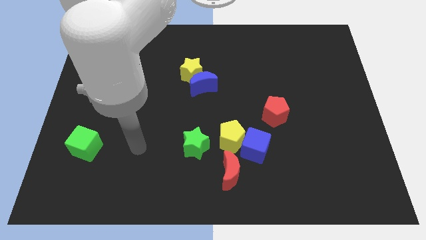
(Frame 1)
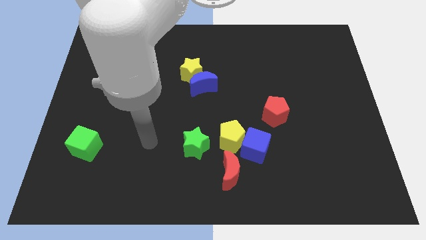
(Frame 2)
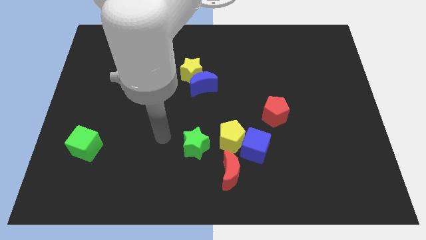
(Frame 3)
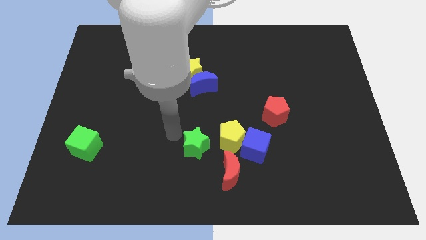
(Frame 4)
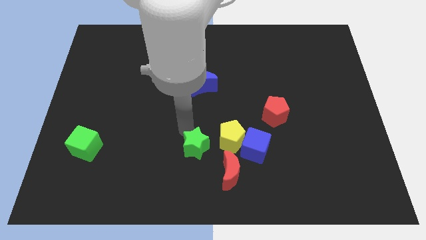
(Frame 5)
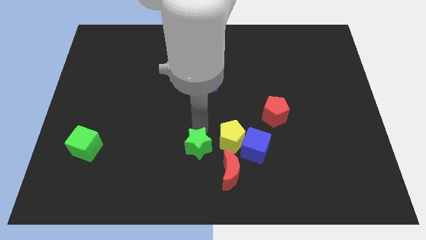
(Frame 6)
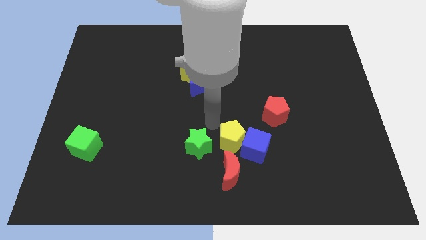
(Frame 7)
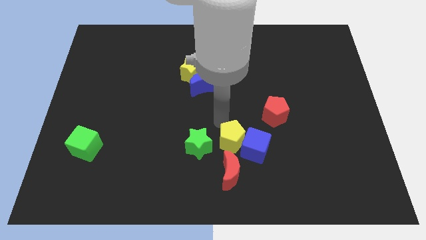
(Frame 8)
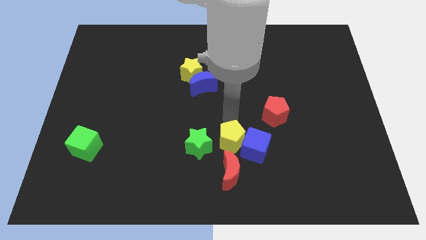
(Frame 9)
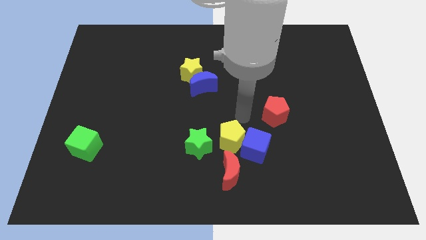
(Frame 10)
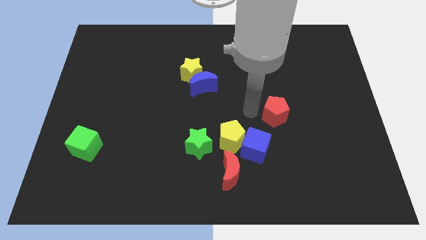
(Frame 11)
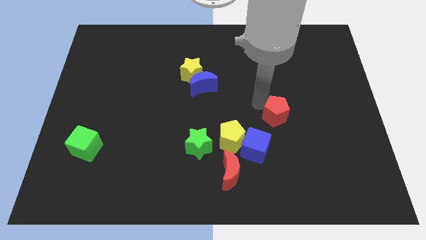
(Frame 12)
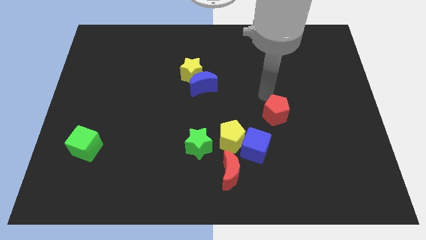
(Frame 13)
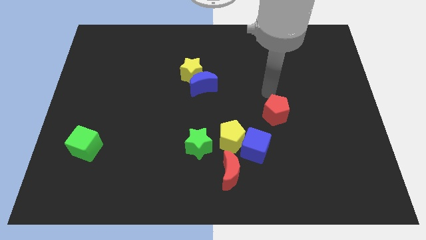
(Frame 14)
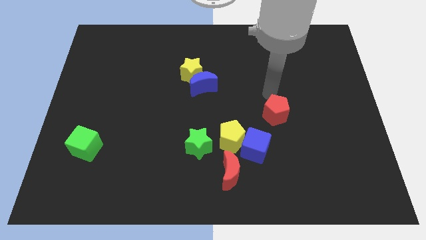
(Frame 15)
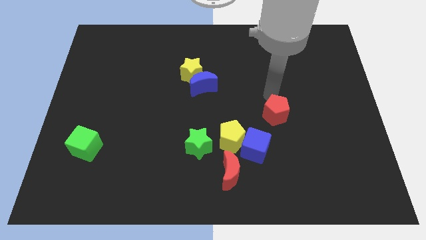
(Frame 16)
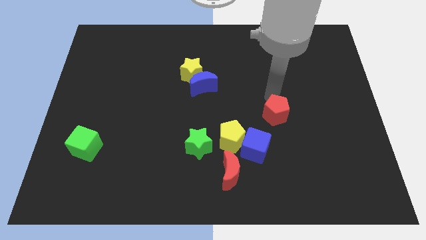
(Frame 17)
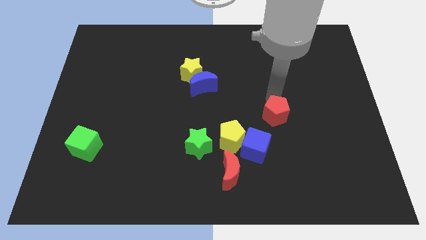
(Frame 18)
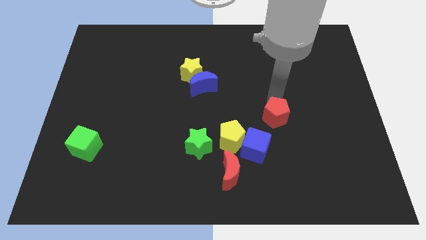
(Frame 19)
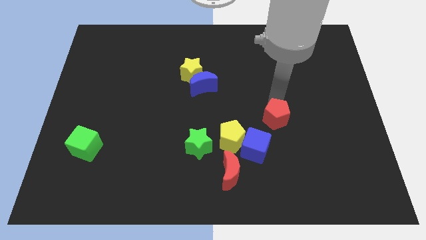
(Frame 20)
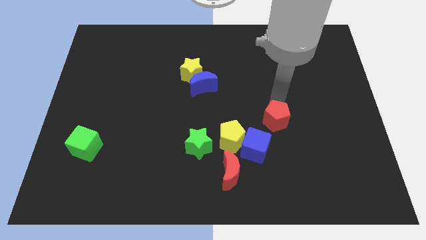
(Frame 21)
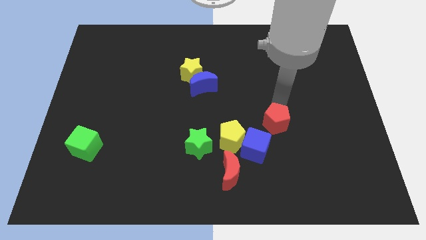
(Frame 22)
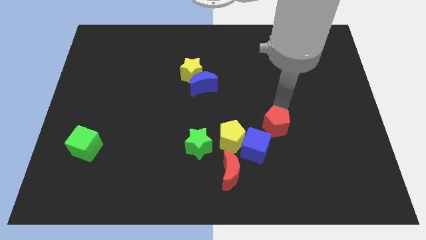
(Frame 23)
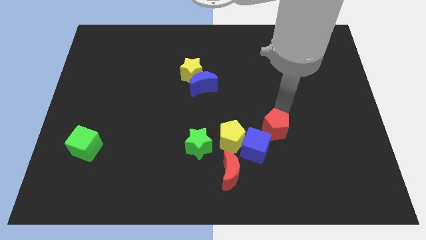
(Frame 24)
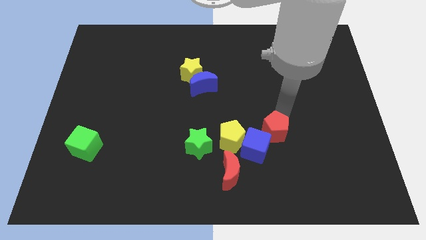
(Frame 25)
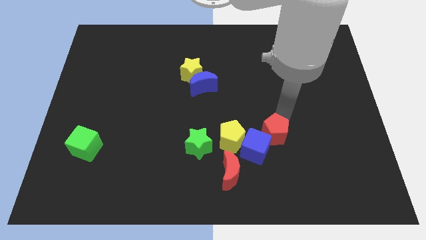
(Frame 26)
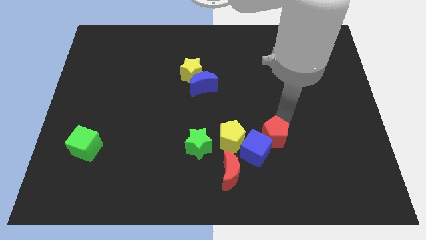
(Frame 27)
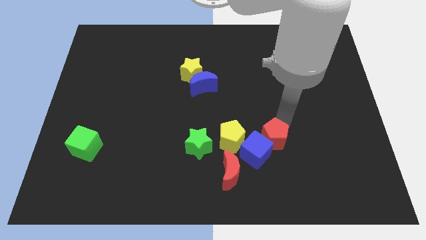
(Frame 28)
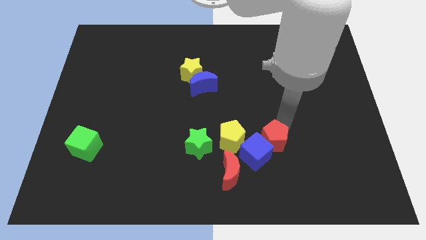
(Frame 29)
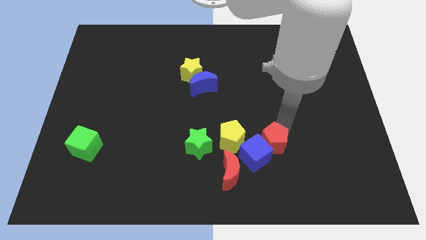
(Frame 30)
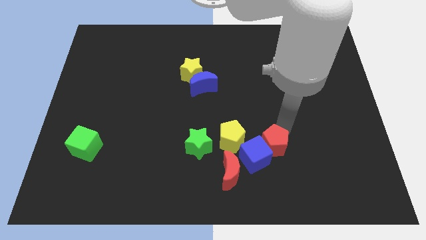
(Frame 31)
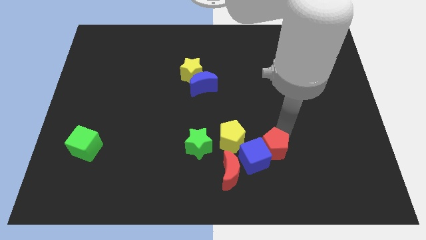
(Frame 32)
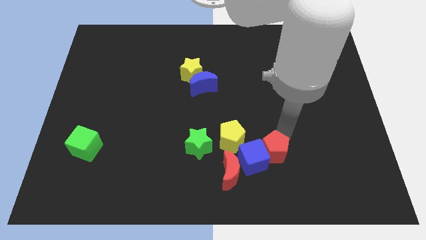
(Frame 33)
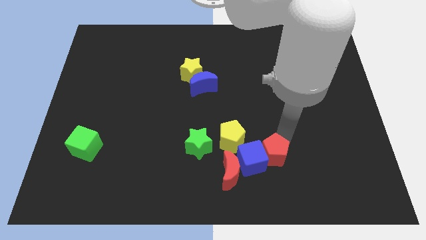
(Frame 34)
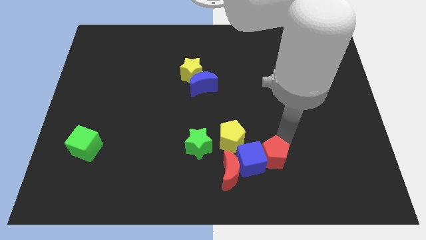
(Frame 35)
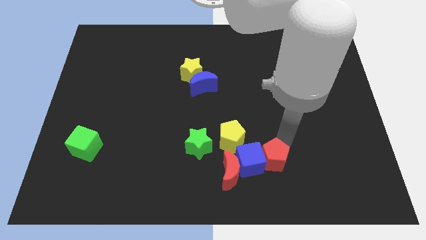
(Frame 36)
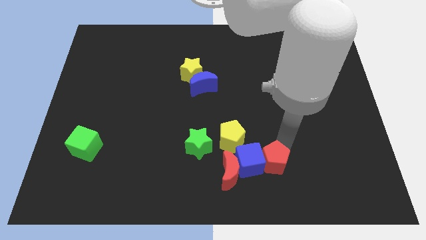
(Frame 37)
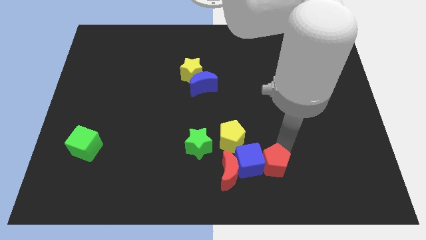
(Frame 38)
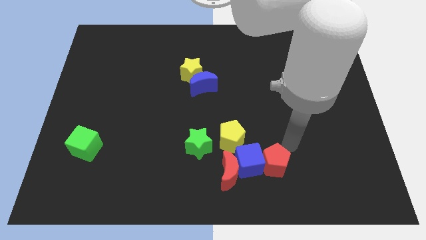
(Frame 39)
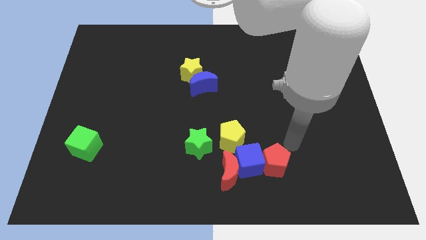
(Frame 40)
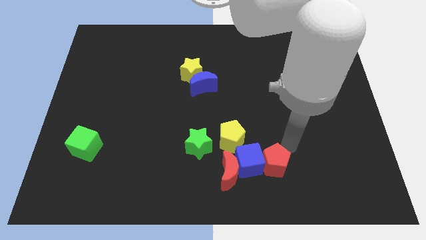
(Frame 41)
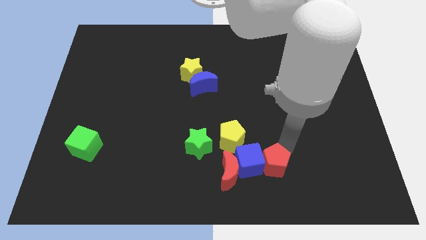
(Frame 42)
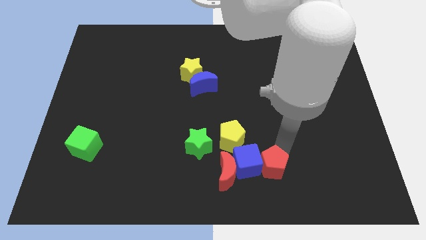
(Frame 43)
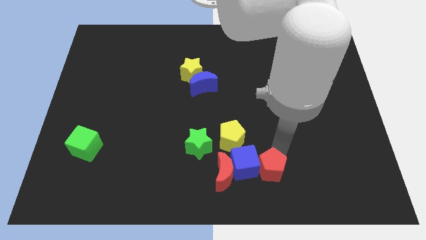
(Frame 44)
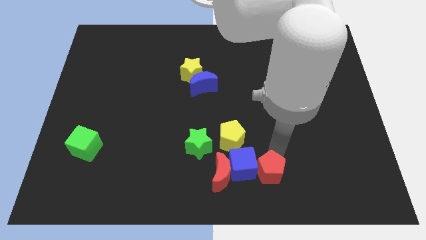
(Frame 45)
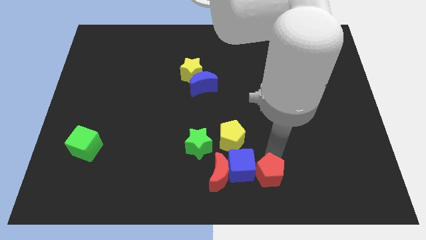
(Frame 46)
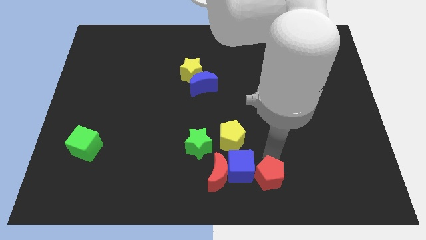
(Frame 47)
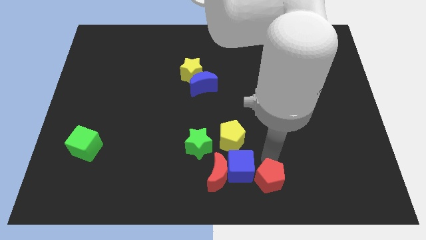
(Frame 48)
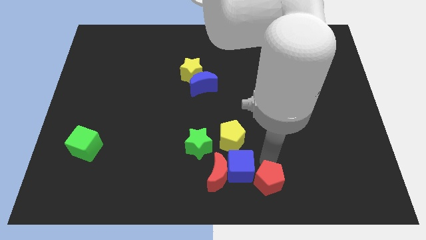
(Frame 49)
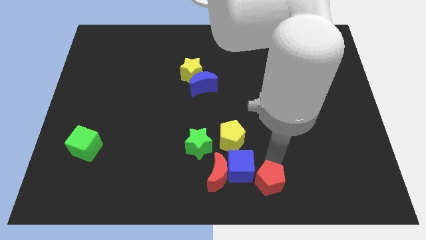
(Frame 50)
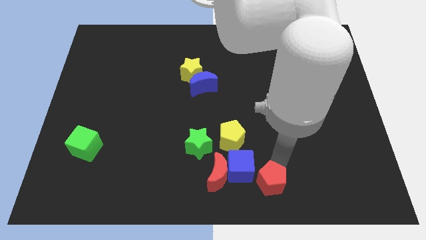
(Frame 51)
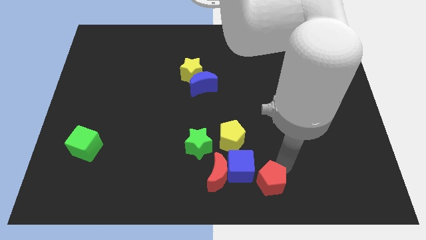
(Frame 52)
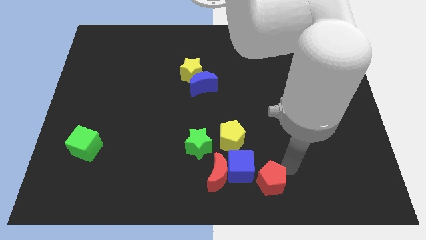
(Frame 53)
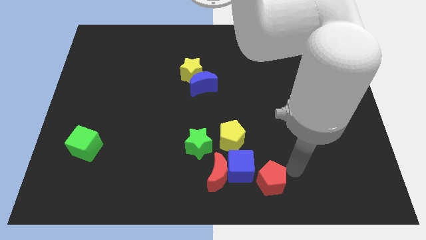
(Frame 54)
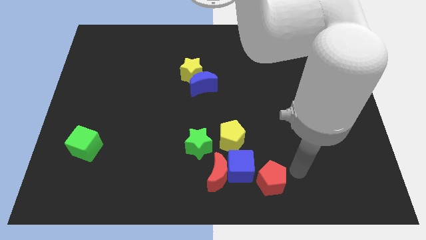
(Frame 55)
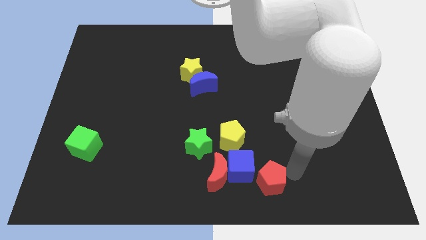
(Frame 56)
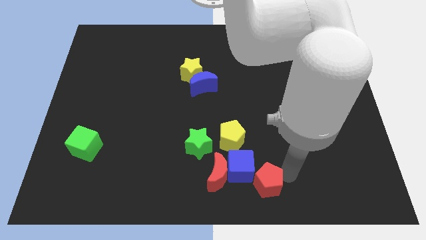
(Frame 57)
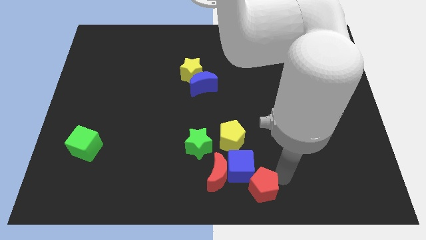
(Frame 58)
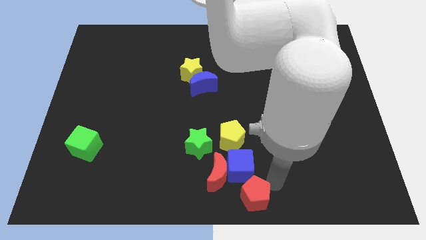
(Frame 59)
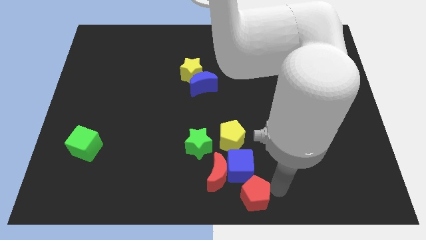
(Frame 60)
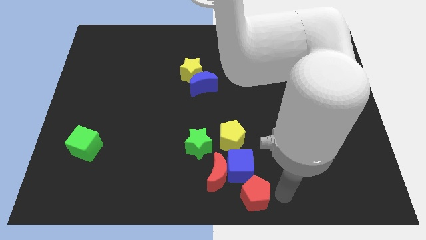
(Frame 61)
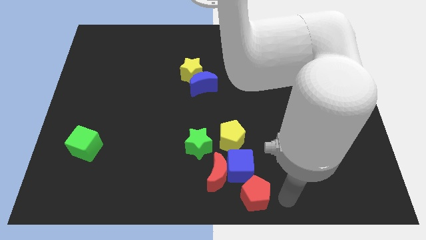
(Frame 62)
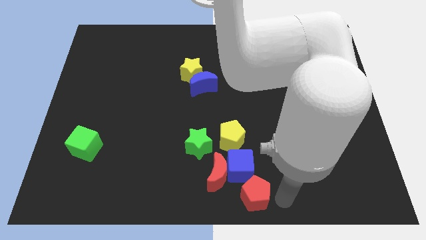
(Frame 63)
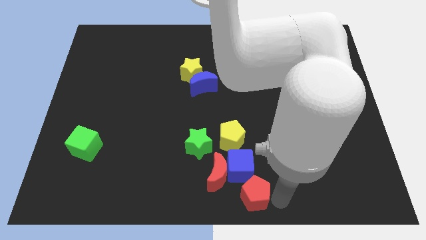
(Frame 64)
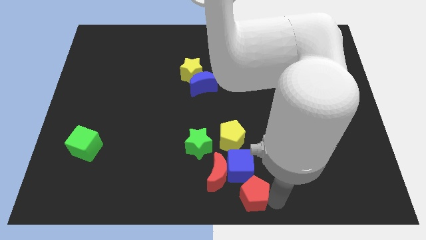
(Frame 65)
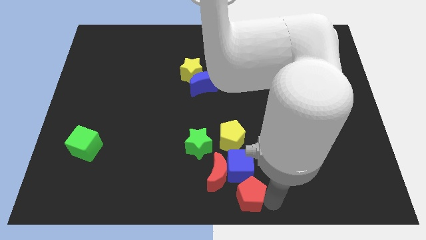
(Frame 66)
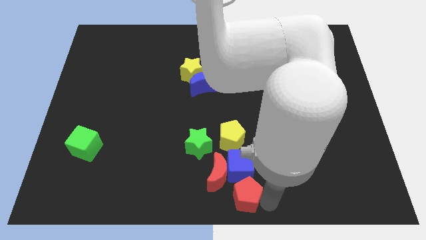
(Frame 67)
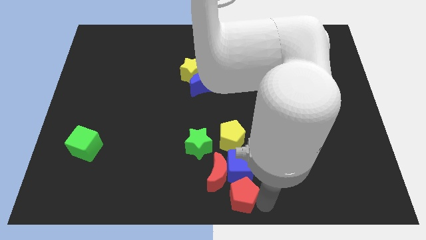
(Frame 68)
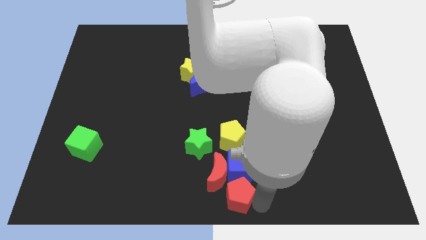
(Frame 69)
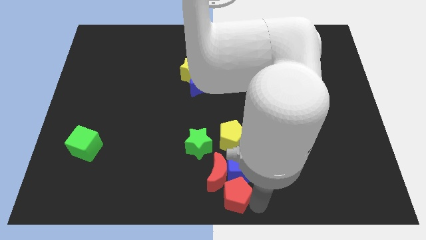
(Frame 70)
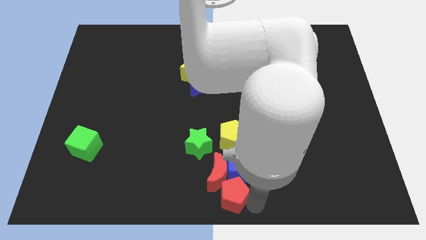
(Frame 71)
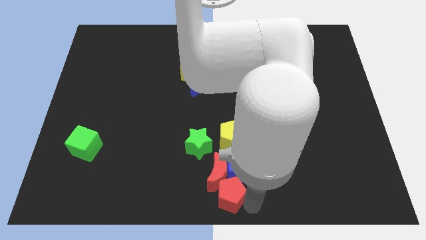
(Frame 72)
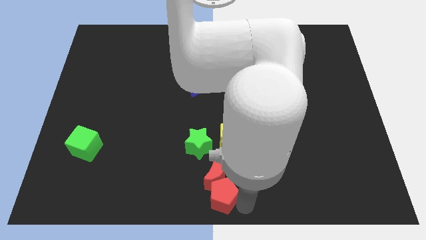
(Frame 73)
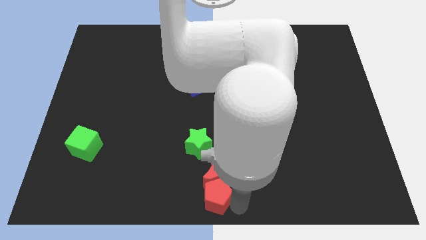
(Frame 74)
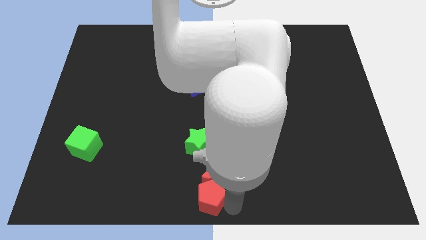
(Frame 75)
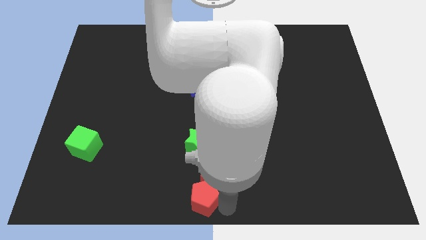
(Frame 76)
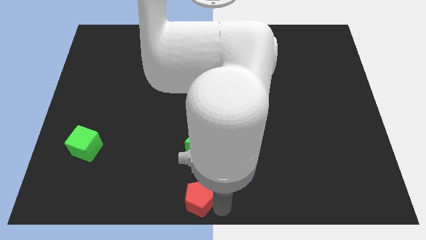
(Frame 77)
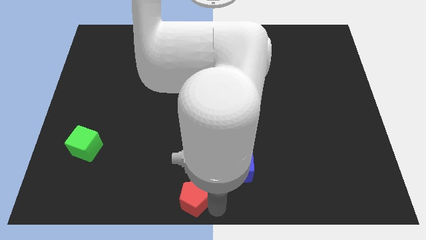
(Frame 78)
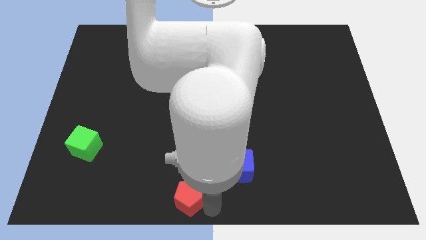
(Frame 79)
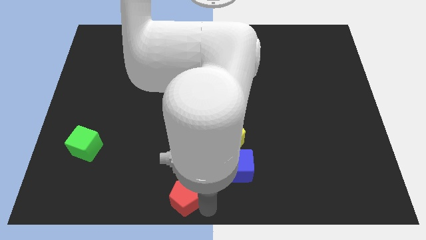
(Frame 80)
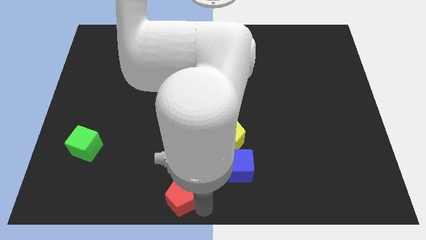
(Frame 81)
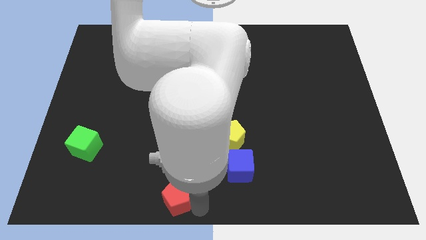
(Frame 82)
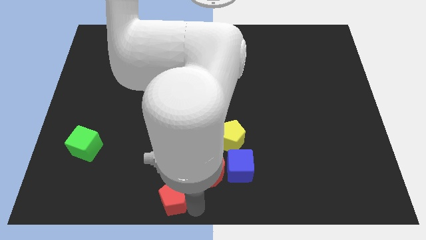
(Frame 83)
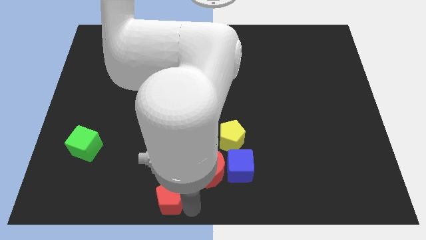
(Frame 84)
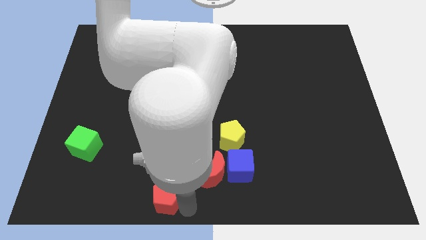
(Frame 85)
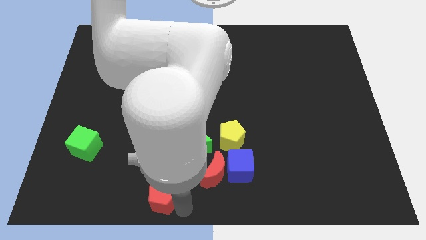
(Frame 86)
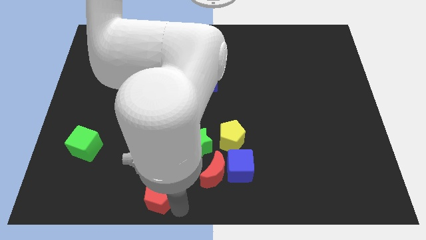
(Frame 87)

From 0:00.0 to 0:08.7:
push the red pentagon to the left side of the red moon
